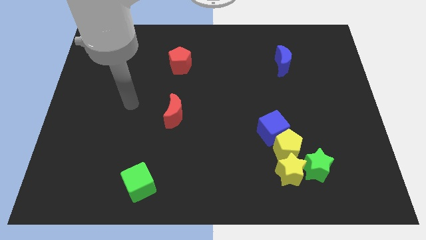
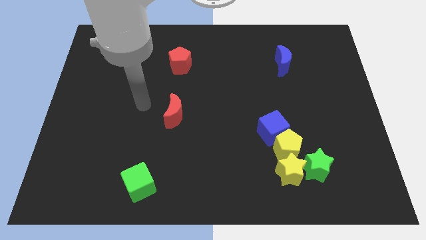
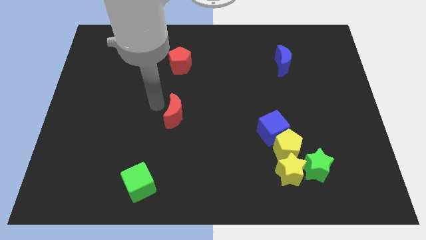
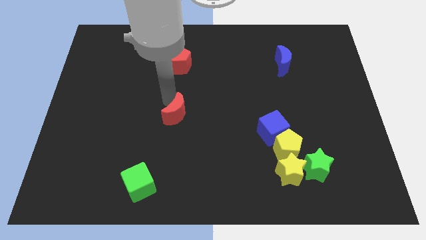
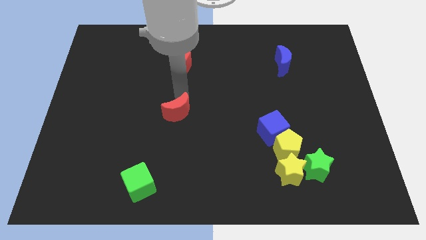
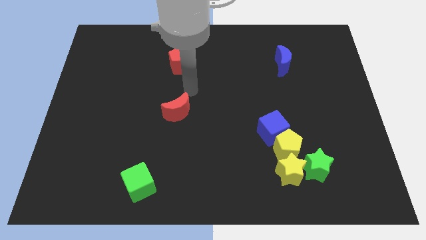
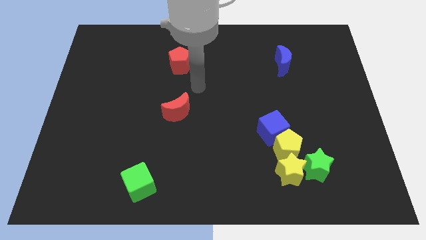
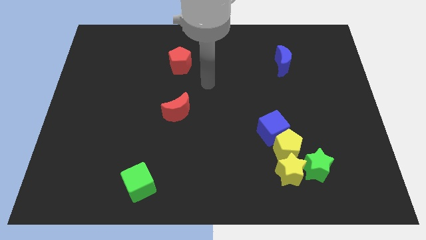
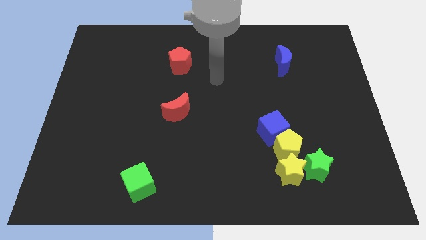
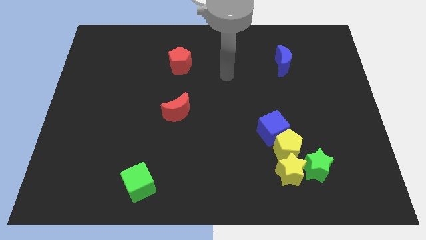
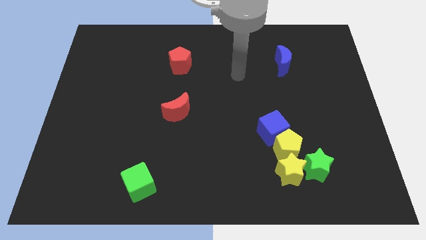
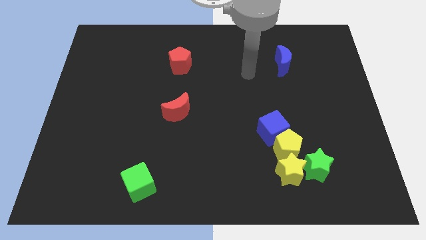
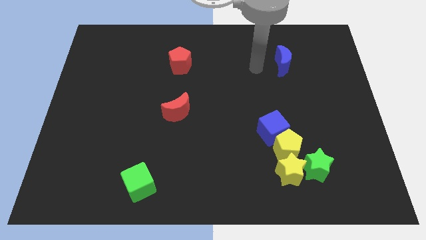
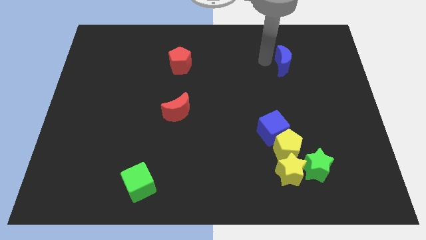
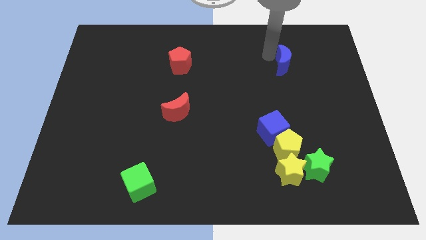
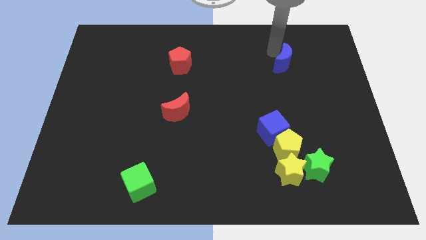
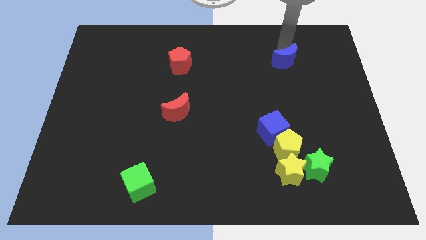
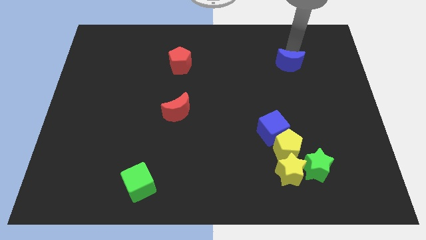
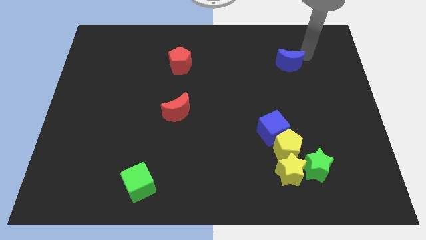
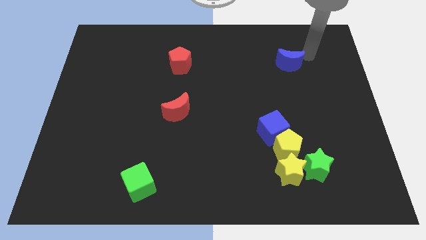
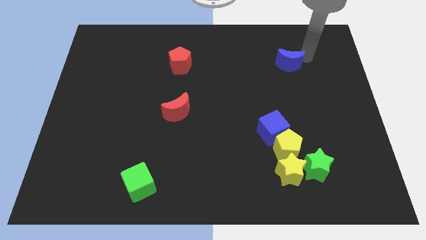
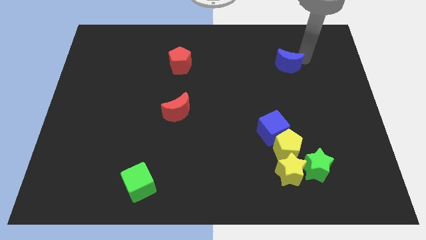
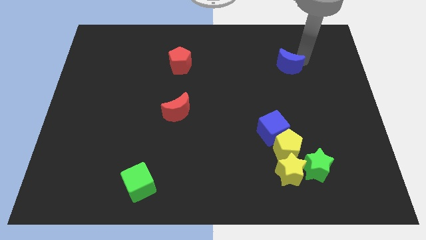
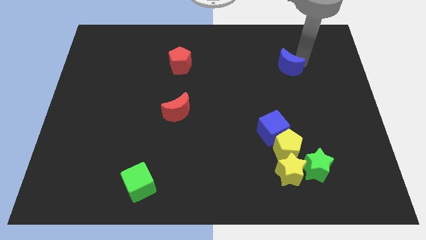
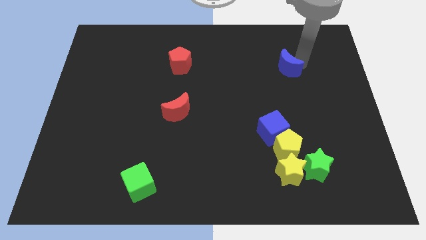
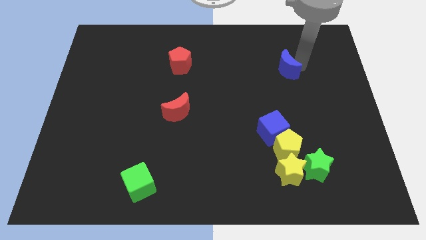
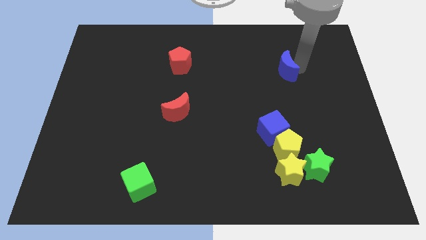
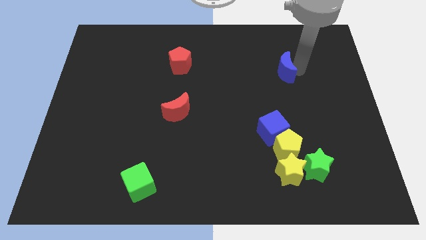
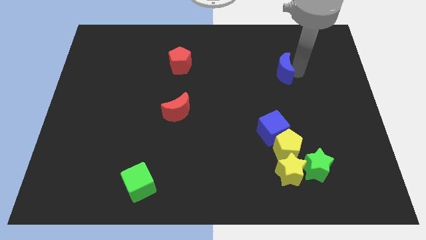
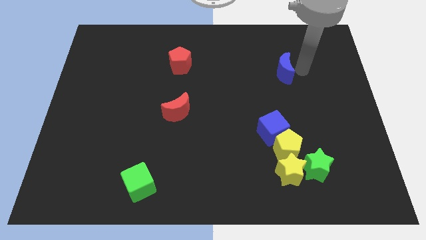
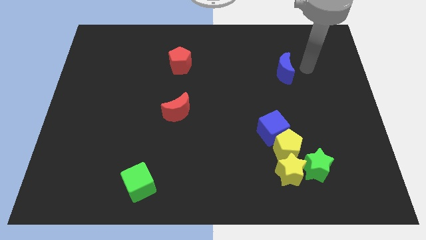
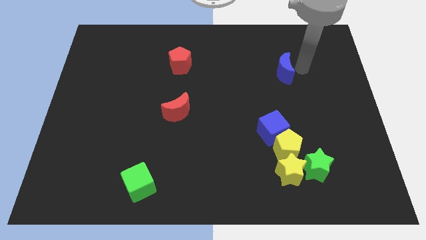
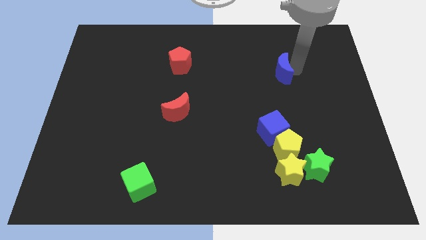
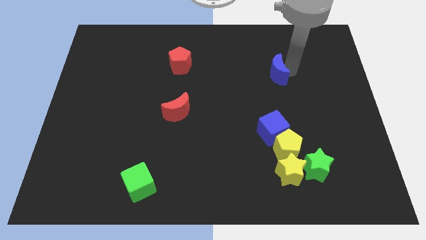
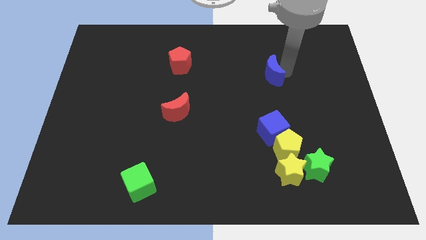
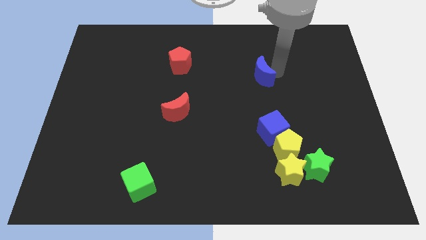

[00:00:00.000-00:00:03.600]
slide the blue moon downwards and then to the left somewhat

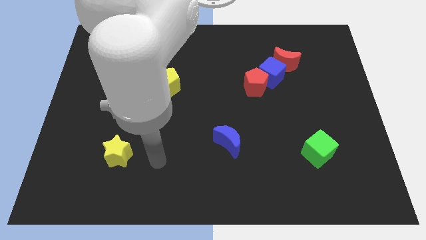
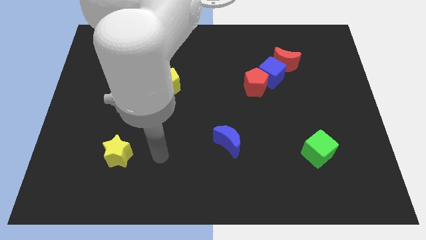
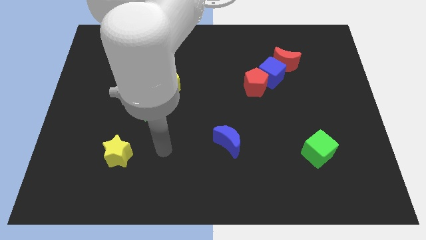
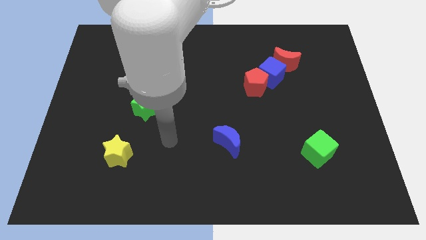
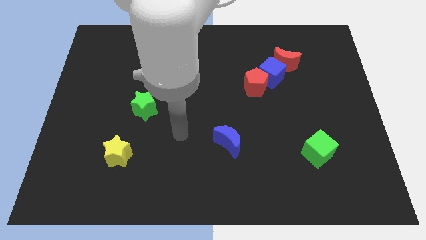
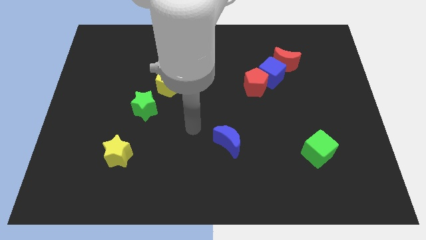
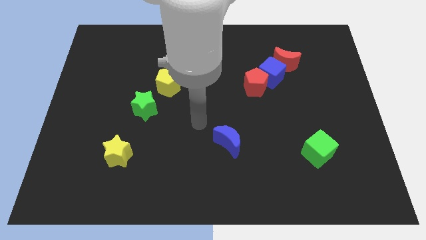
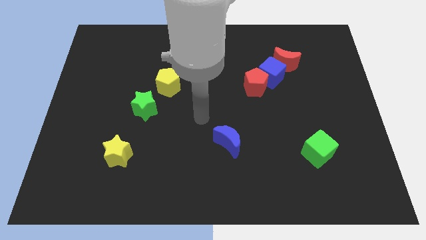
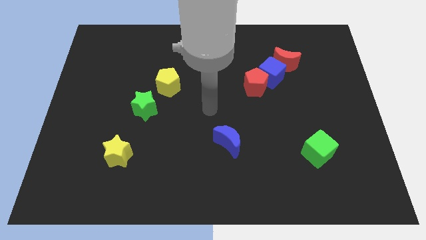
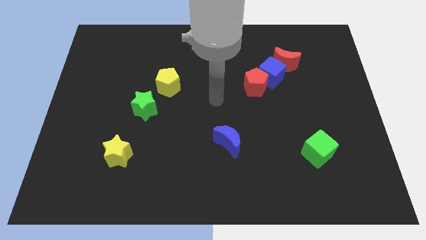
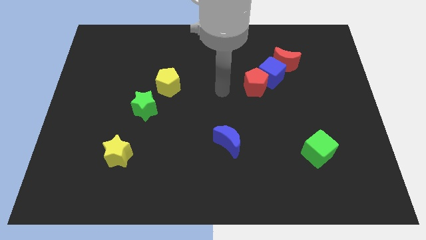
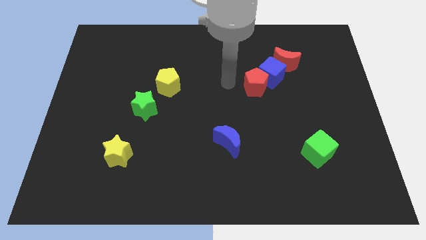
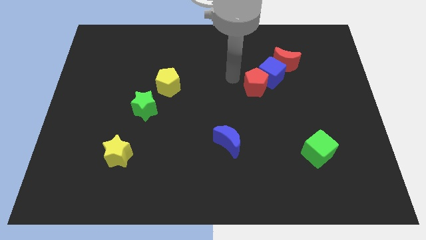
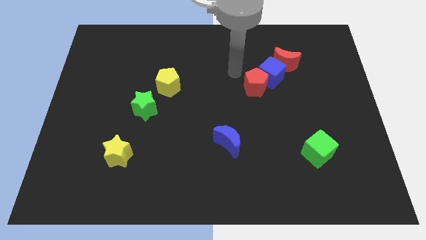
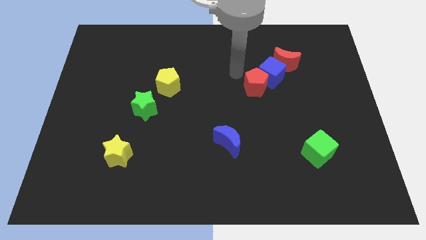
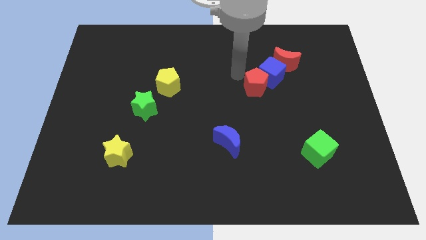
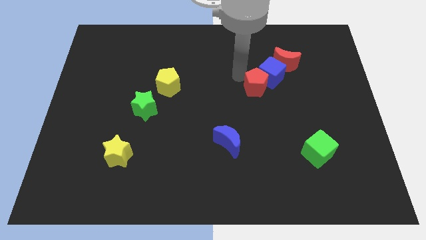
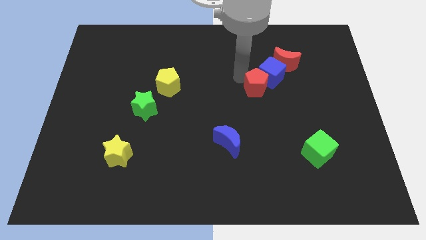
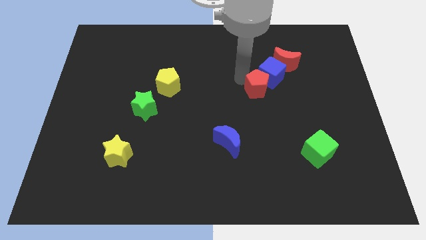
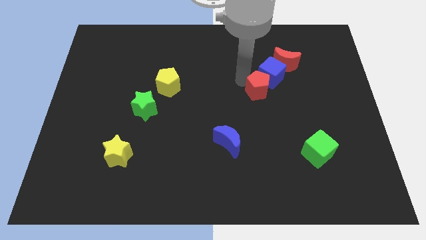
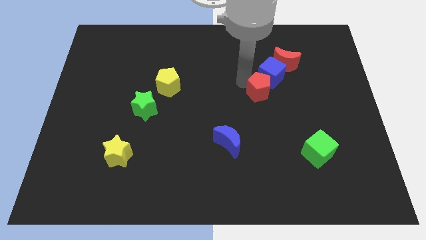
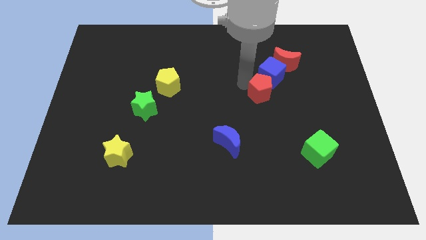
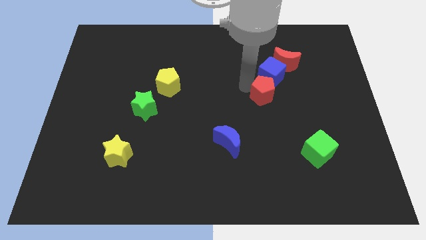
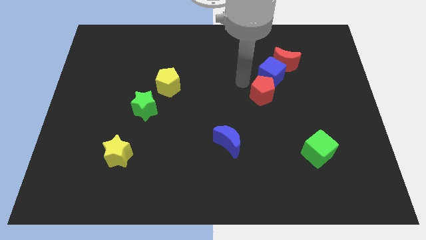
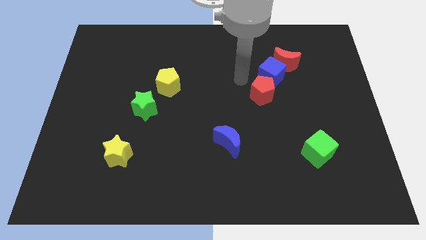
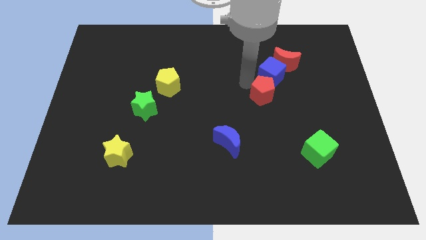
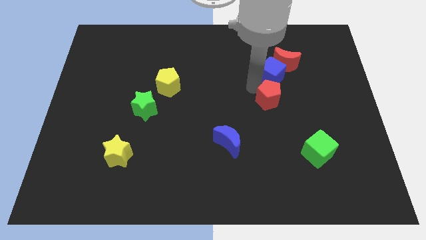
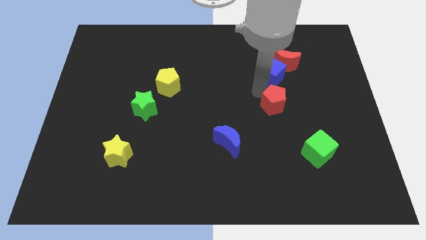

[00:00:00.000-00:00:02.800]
slightly slide the red pentagon downwards and to the right diagonally

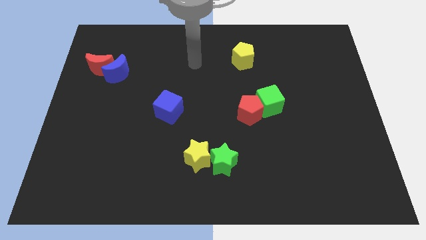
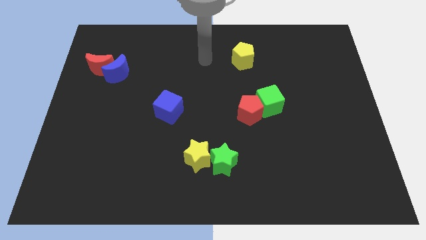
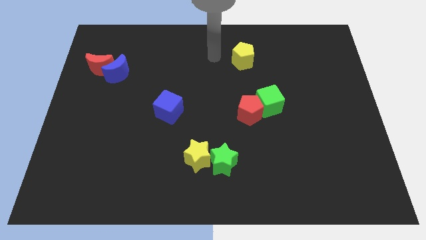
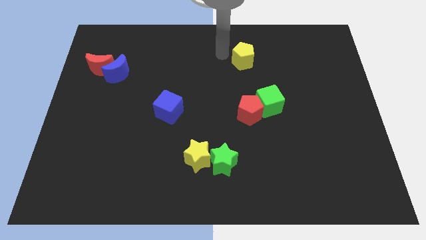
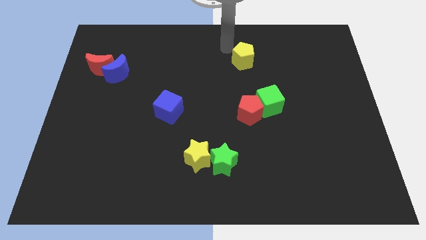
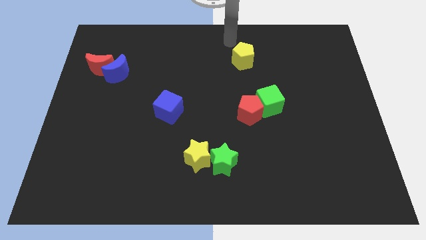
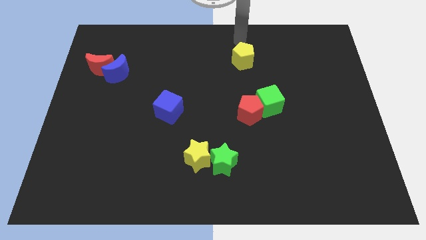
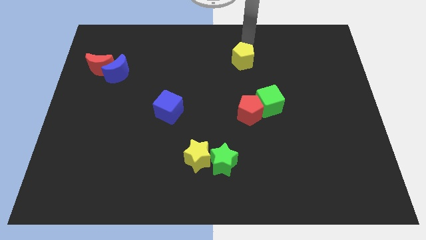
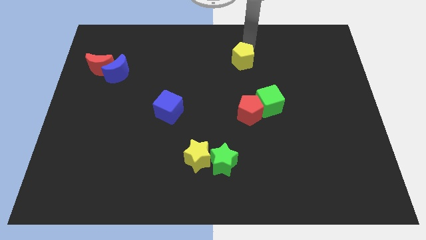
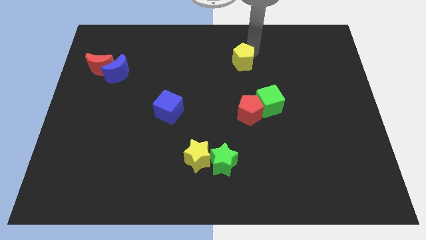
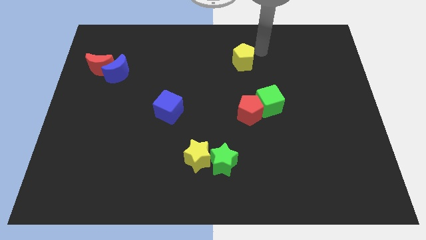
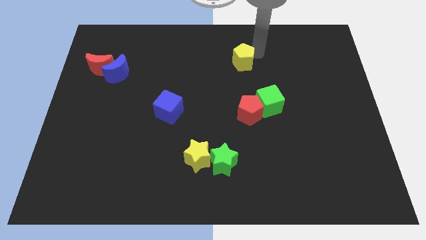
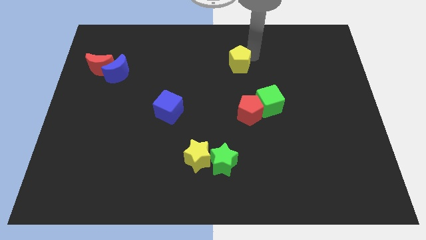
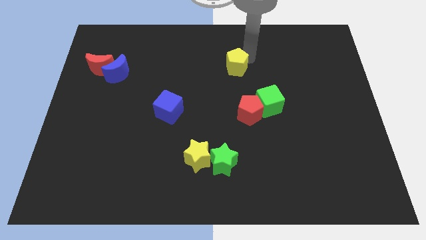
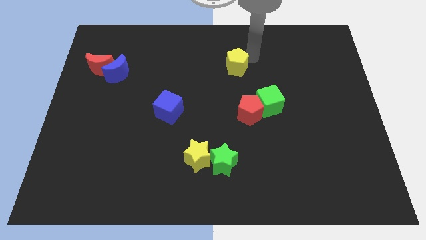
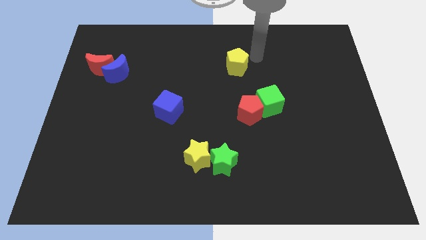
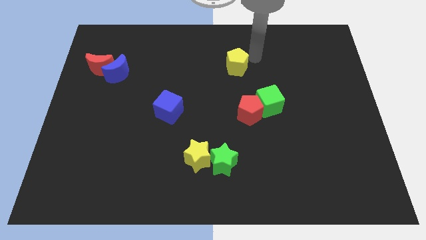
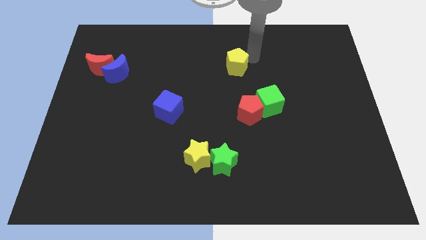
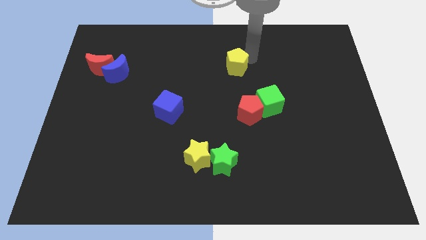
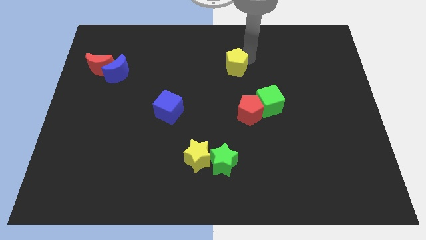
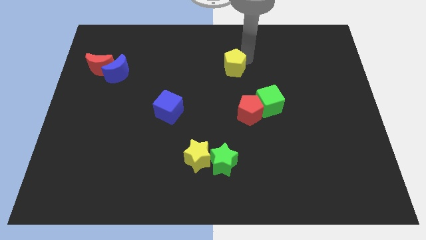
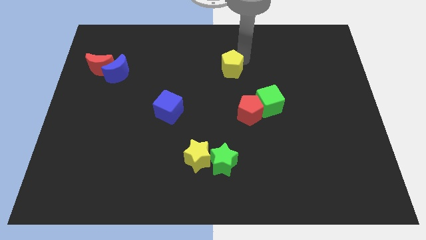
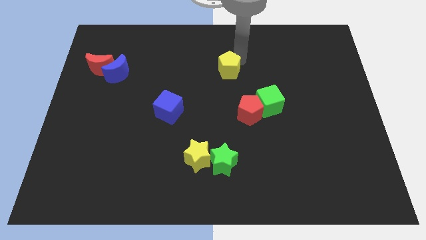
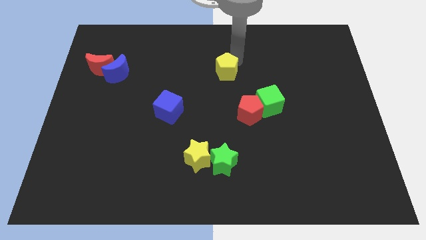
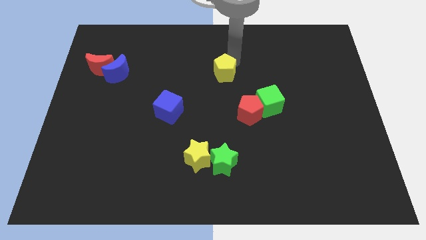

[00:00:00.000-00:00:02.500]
move the yellow pentagon down and to the left a bit
